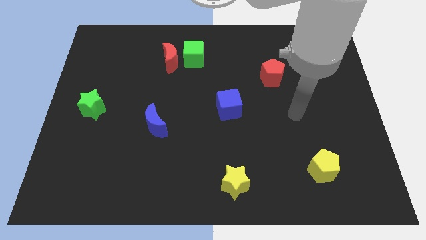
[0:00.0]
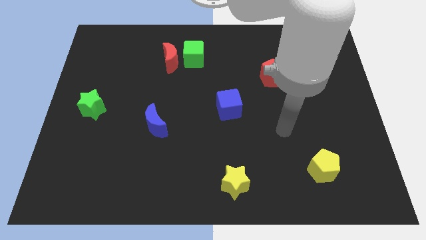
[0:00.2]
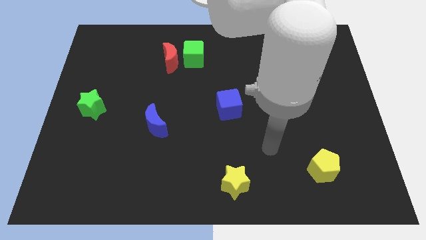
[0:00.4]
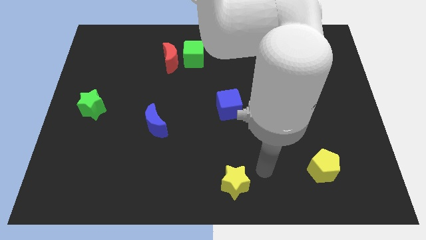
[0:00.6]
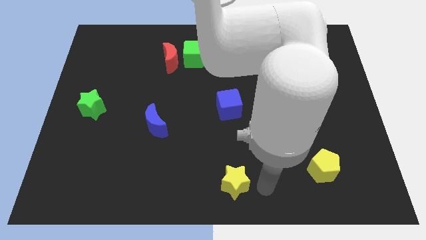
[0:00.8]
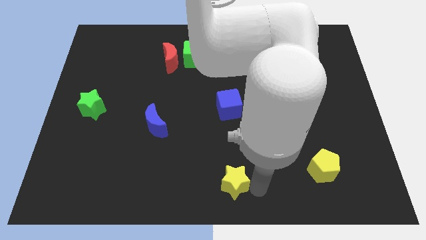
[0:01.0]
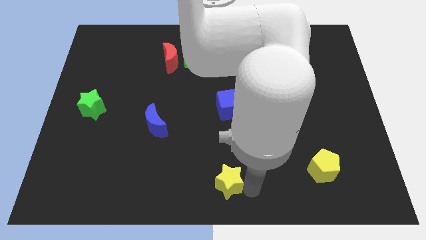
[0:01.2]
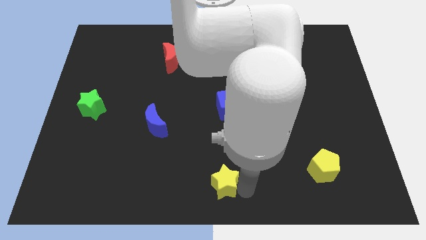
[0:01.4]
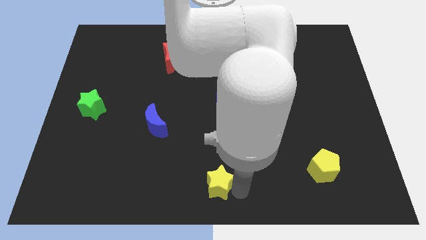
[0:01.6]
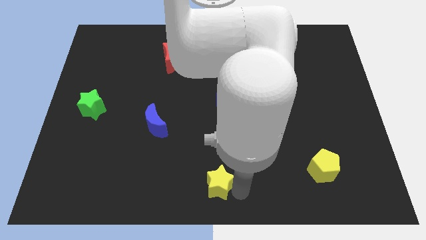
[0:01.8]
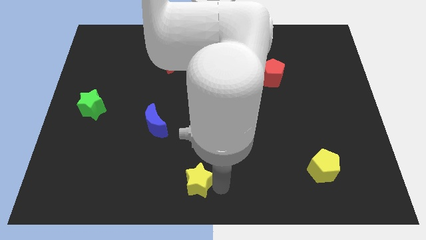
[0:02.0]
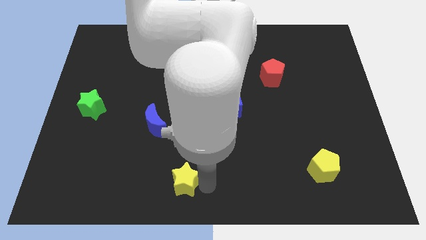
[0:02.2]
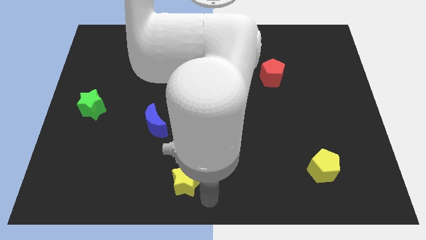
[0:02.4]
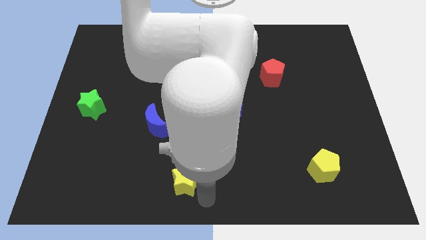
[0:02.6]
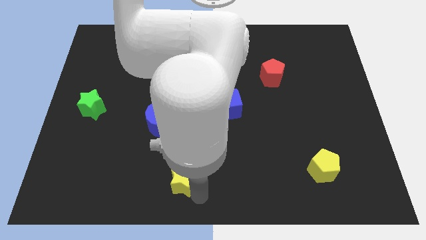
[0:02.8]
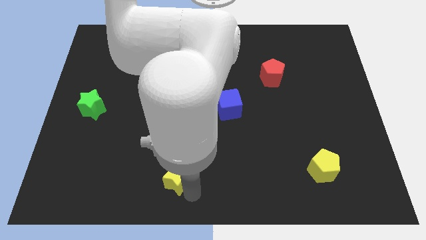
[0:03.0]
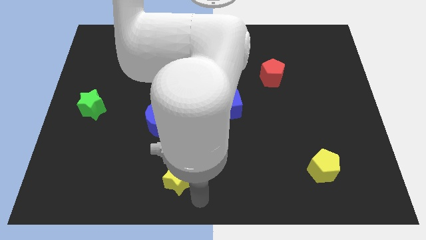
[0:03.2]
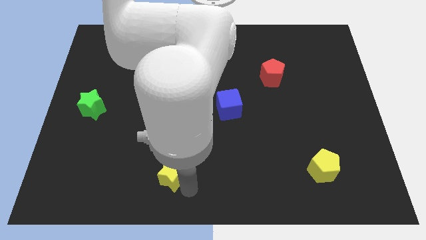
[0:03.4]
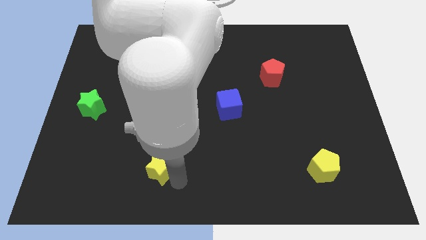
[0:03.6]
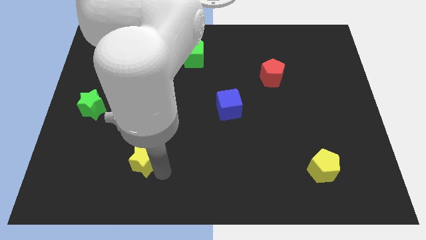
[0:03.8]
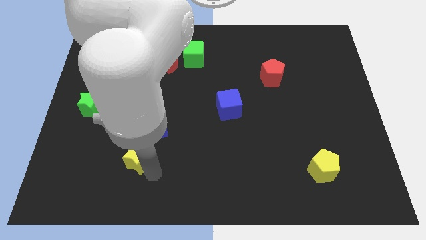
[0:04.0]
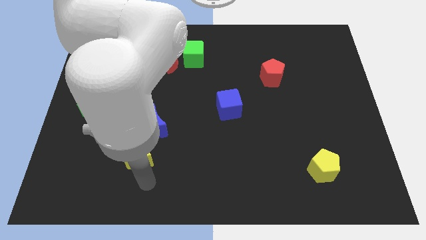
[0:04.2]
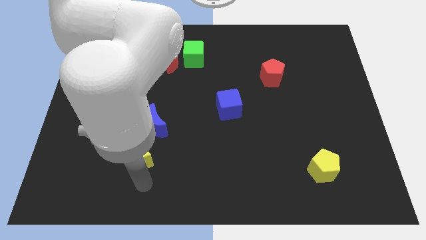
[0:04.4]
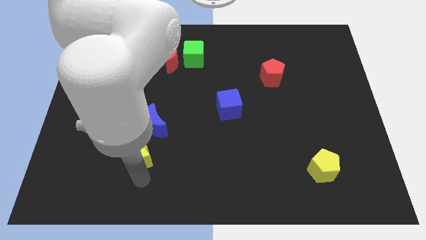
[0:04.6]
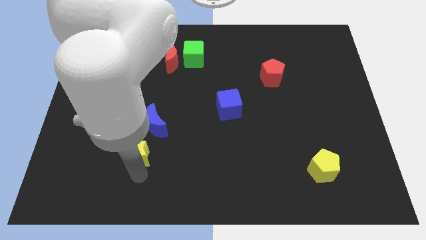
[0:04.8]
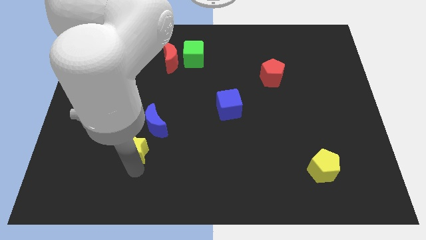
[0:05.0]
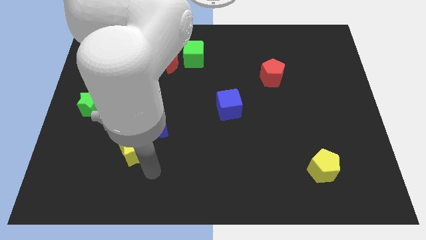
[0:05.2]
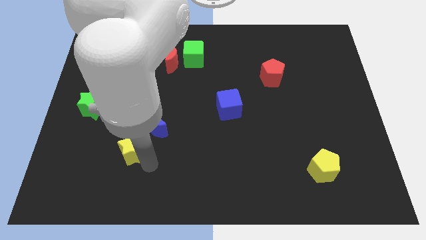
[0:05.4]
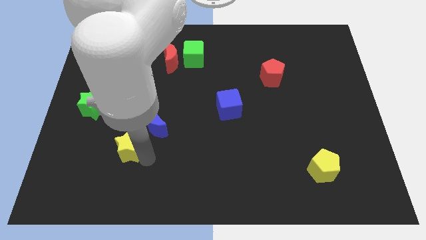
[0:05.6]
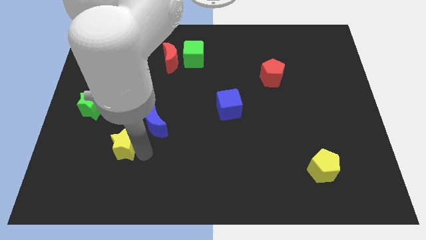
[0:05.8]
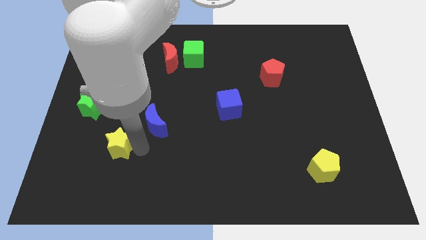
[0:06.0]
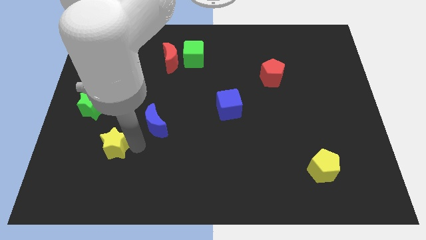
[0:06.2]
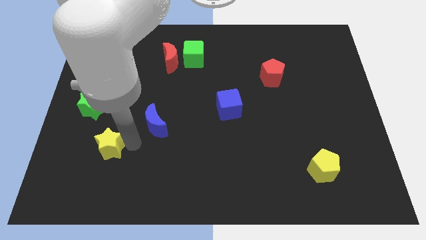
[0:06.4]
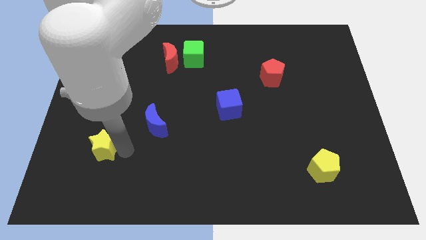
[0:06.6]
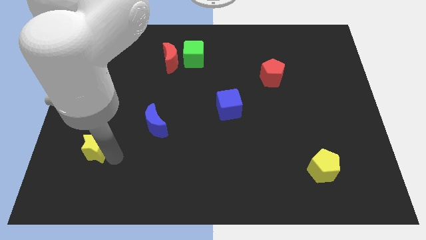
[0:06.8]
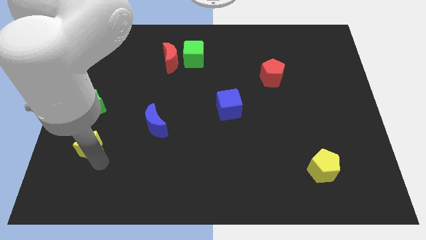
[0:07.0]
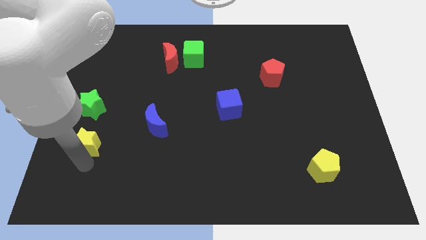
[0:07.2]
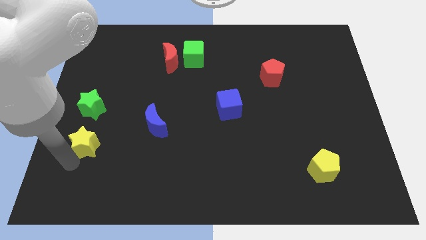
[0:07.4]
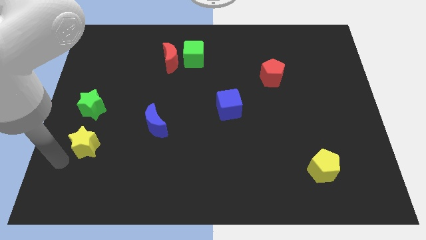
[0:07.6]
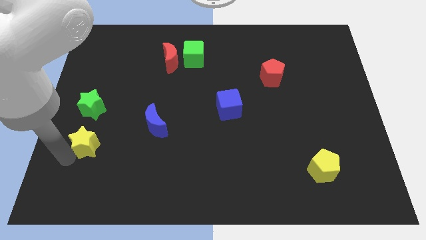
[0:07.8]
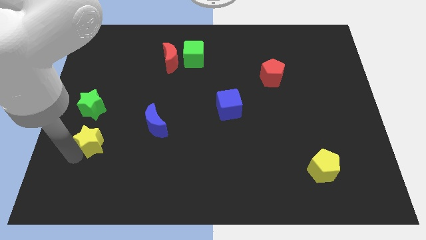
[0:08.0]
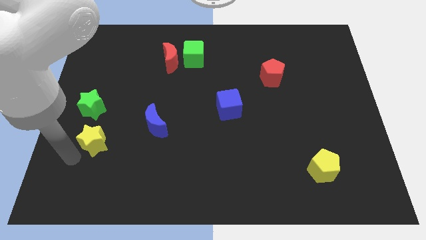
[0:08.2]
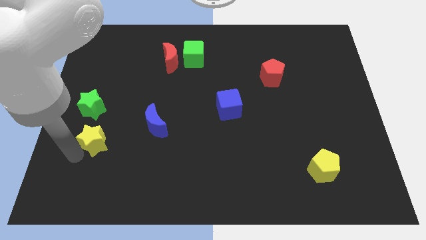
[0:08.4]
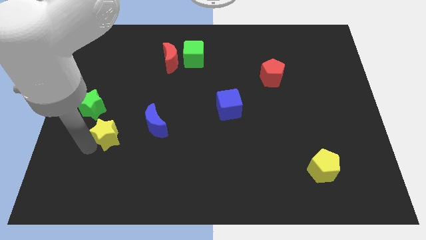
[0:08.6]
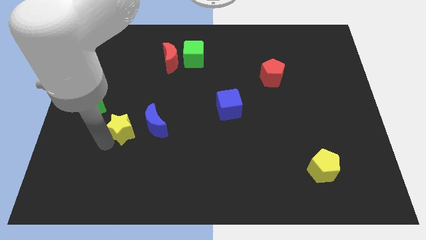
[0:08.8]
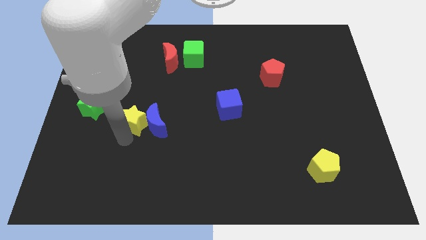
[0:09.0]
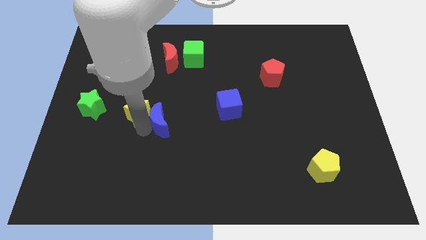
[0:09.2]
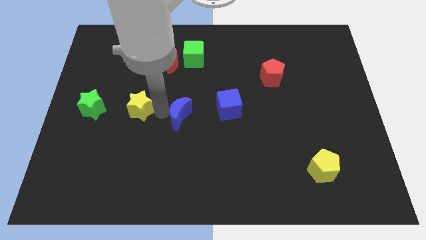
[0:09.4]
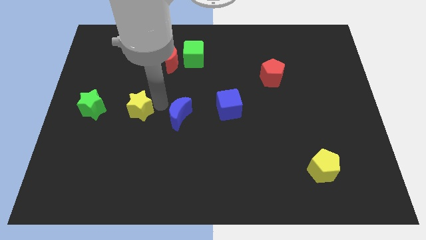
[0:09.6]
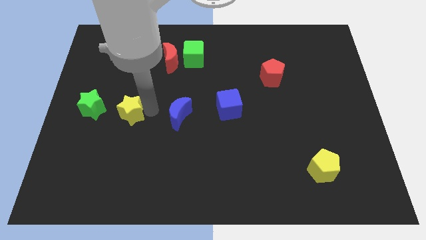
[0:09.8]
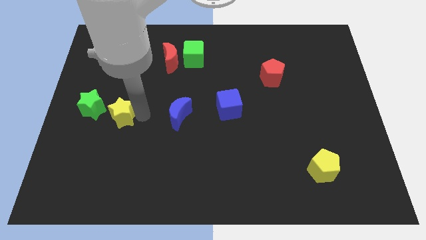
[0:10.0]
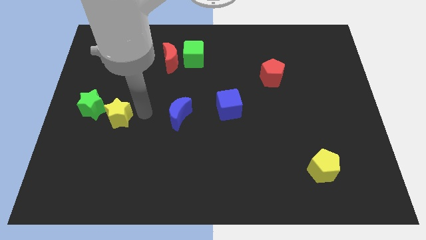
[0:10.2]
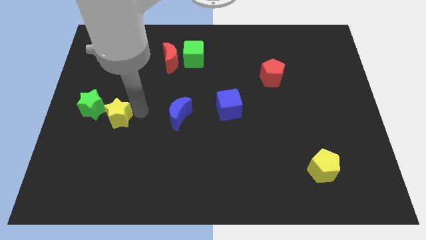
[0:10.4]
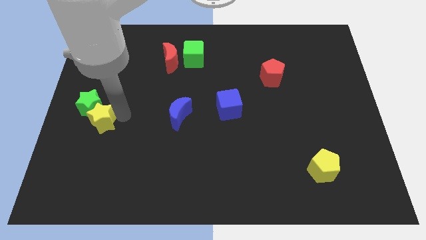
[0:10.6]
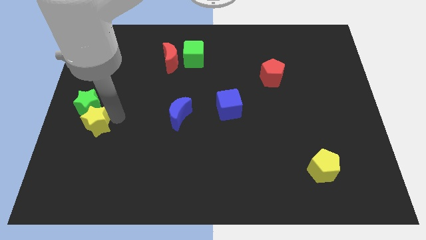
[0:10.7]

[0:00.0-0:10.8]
put the yellow star to the left side of the board
